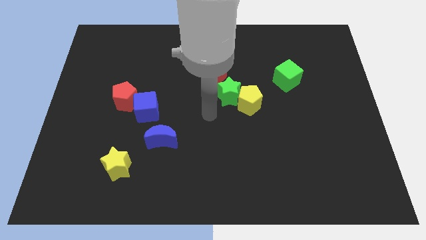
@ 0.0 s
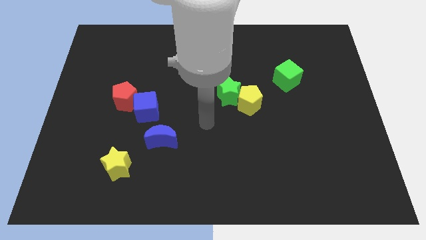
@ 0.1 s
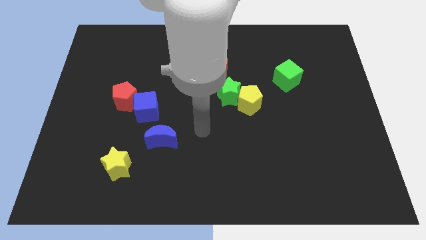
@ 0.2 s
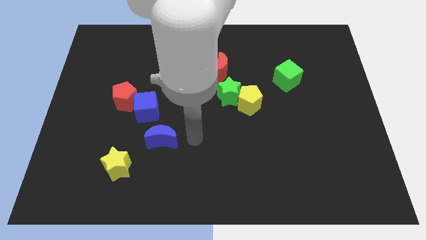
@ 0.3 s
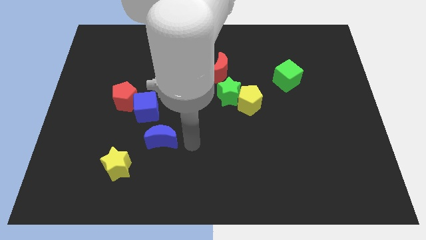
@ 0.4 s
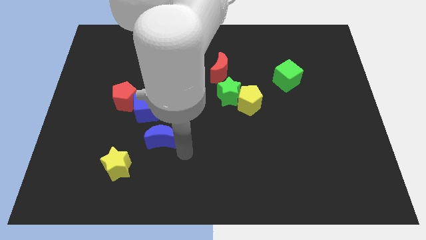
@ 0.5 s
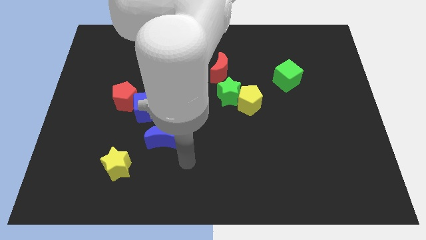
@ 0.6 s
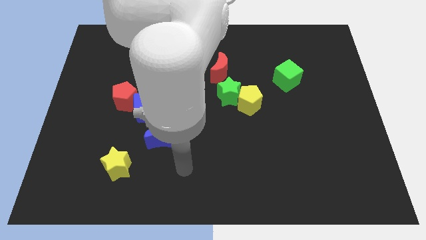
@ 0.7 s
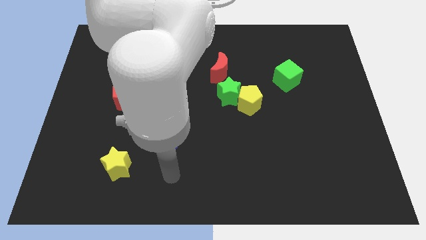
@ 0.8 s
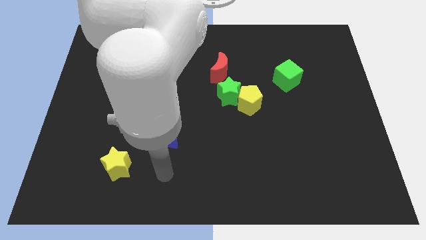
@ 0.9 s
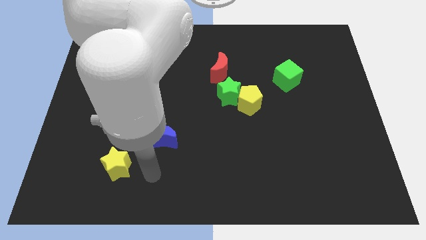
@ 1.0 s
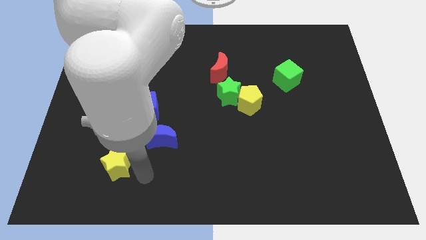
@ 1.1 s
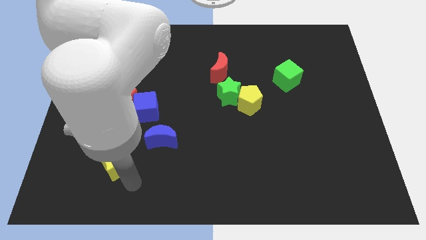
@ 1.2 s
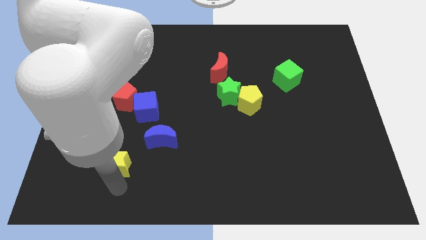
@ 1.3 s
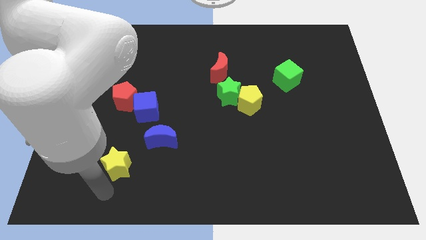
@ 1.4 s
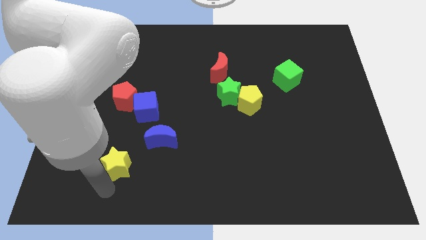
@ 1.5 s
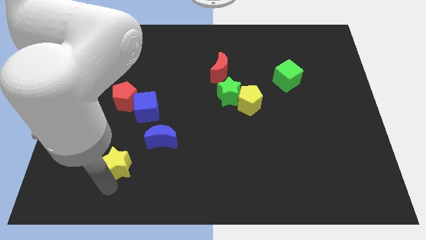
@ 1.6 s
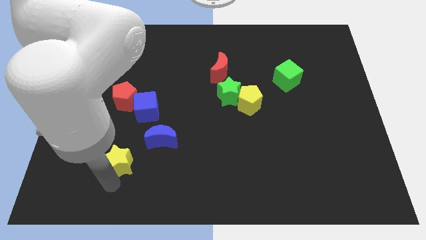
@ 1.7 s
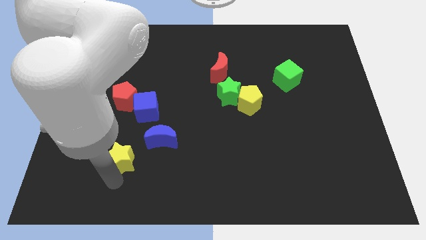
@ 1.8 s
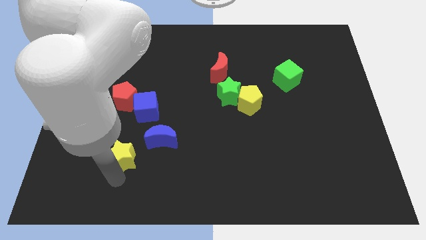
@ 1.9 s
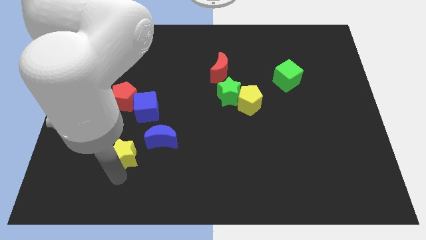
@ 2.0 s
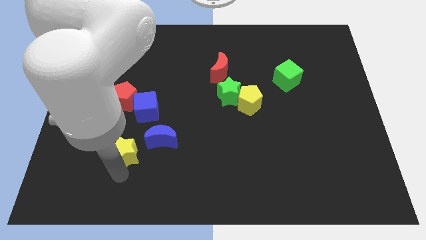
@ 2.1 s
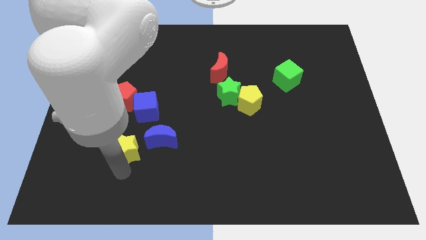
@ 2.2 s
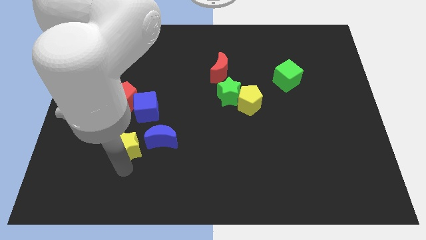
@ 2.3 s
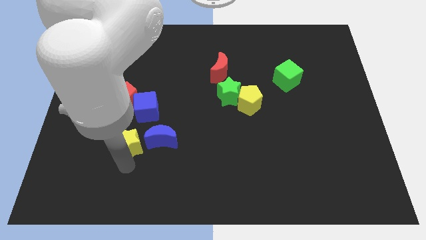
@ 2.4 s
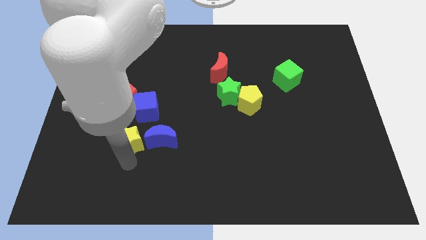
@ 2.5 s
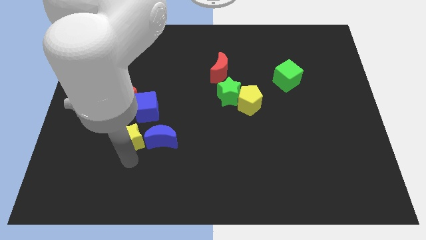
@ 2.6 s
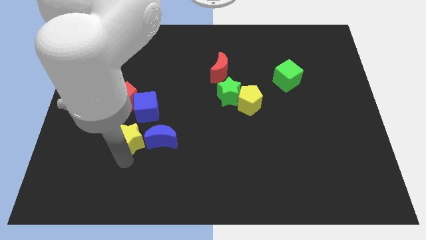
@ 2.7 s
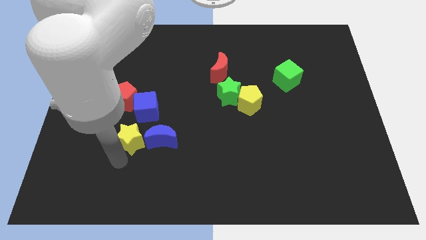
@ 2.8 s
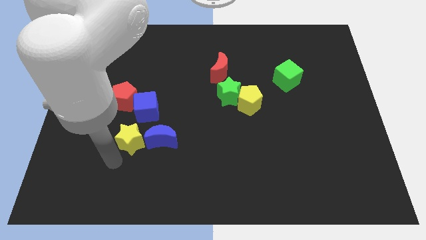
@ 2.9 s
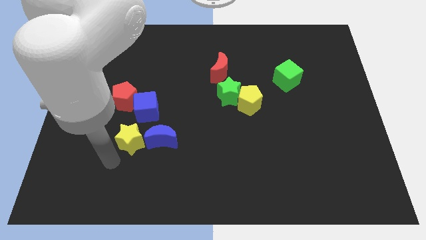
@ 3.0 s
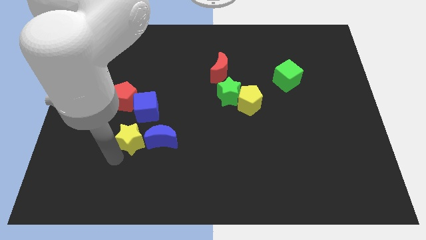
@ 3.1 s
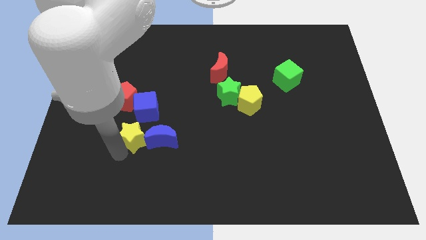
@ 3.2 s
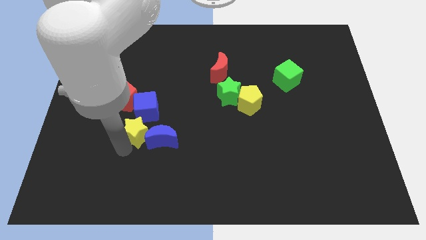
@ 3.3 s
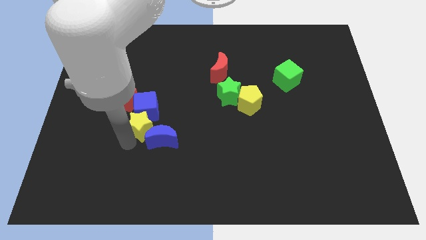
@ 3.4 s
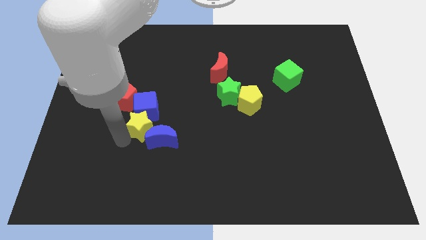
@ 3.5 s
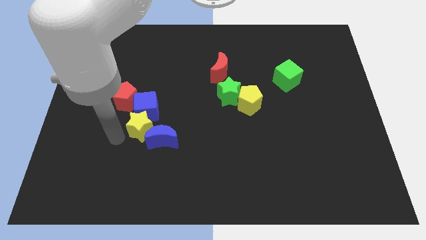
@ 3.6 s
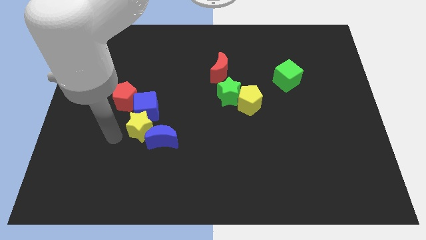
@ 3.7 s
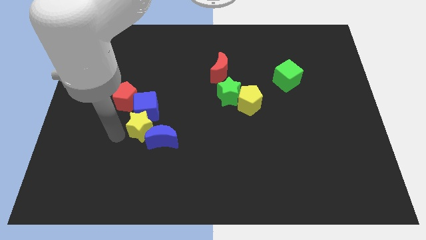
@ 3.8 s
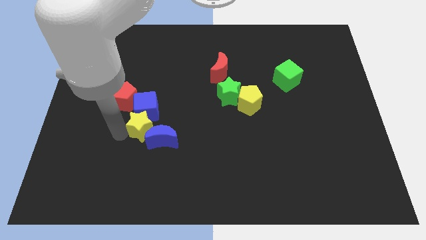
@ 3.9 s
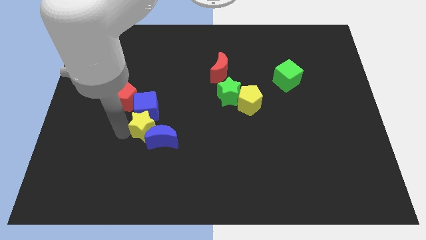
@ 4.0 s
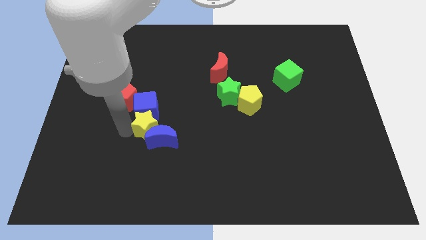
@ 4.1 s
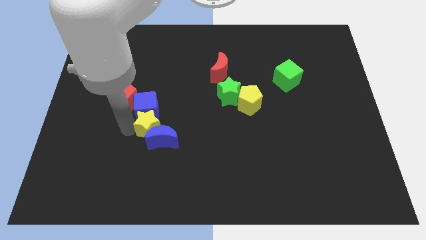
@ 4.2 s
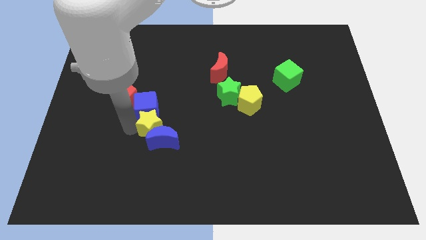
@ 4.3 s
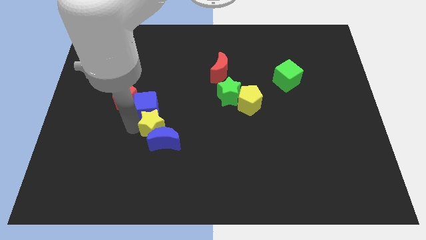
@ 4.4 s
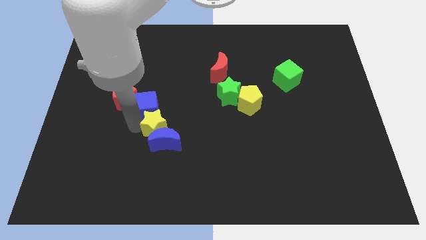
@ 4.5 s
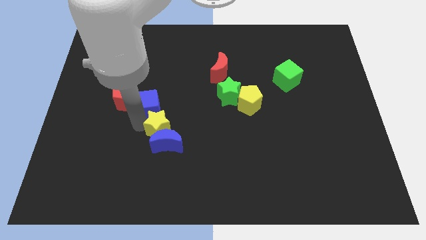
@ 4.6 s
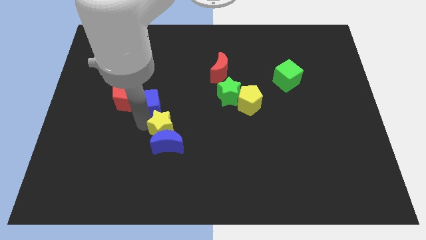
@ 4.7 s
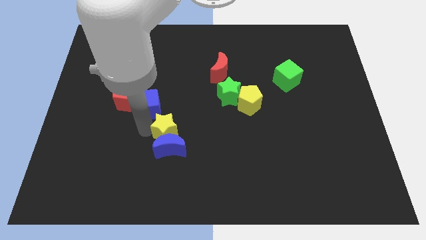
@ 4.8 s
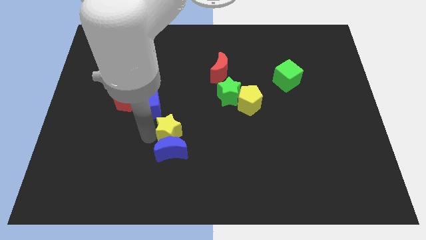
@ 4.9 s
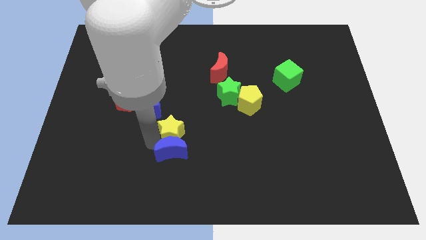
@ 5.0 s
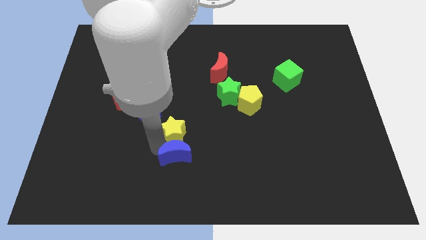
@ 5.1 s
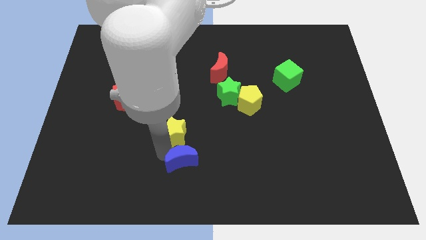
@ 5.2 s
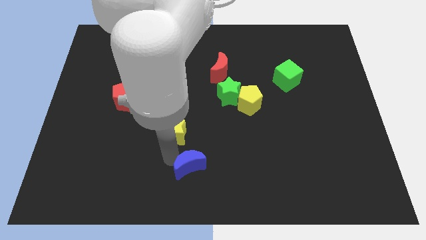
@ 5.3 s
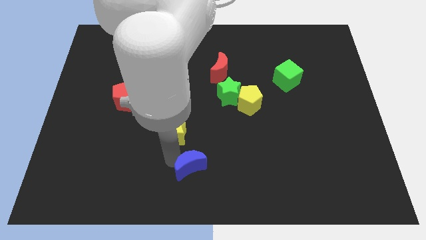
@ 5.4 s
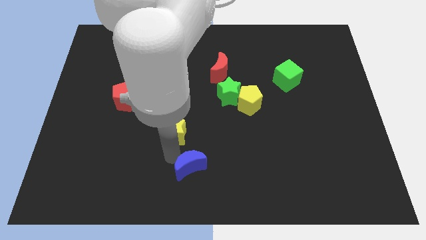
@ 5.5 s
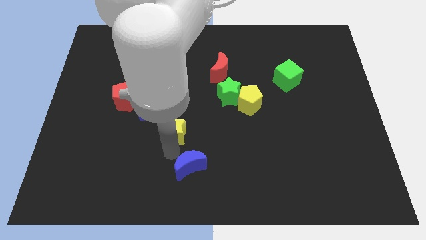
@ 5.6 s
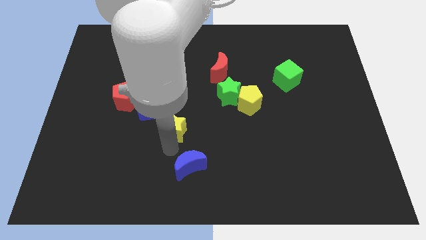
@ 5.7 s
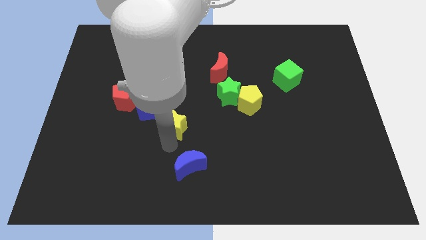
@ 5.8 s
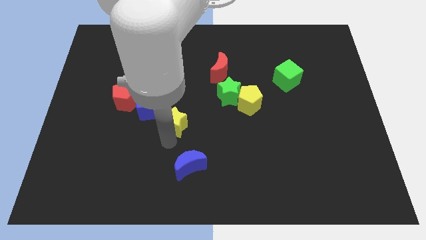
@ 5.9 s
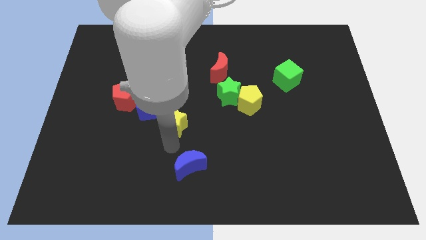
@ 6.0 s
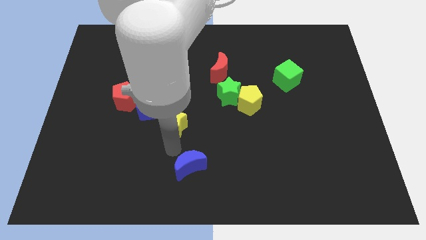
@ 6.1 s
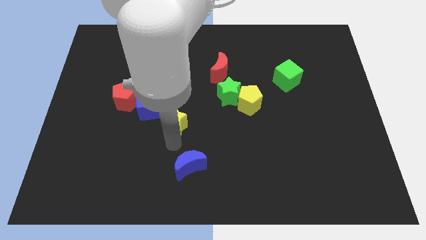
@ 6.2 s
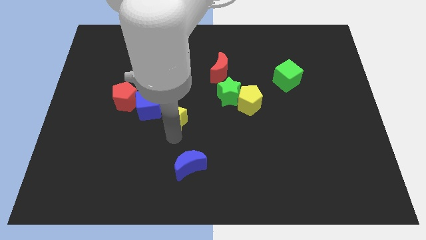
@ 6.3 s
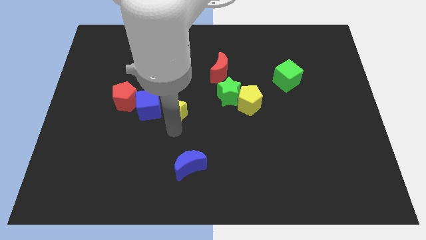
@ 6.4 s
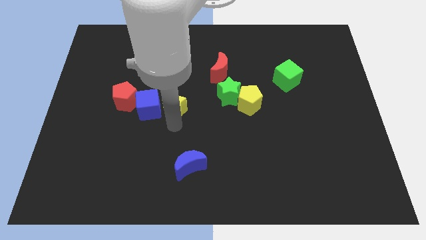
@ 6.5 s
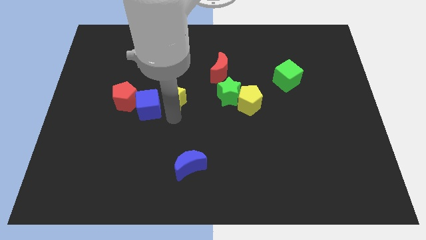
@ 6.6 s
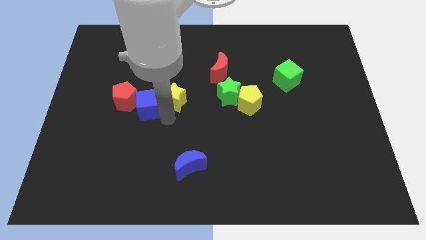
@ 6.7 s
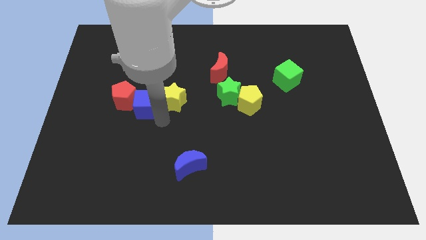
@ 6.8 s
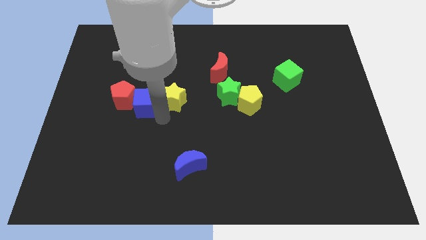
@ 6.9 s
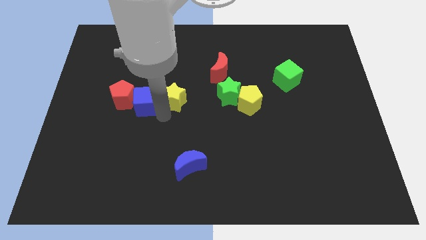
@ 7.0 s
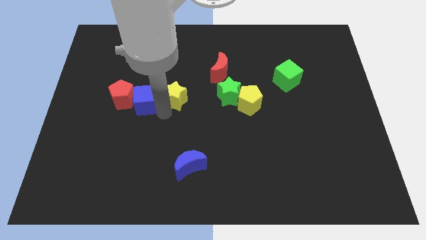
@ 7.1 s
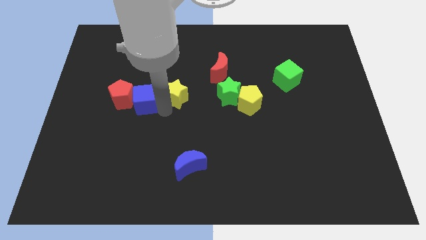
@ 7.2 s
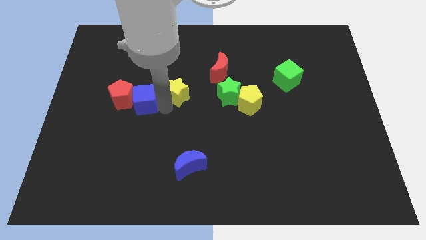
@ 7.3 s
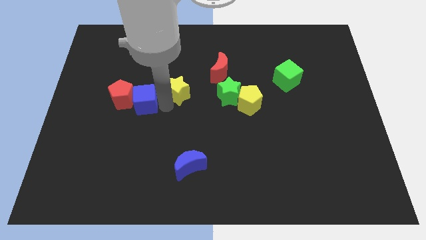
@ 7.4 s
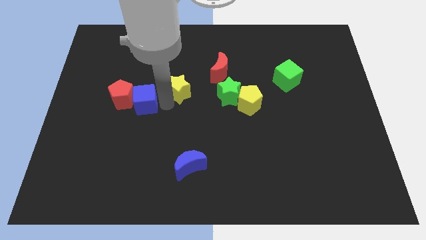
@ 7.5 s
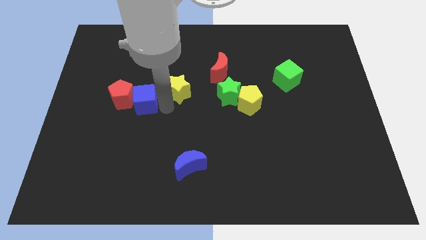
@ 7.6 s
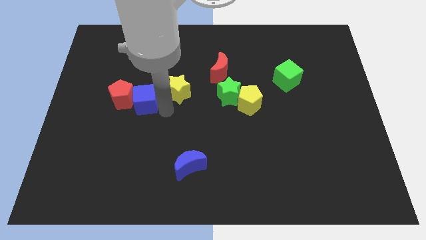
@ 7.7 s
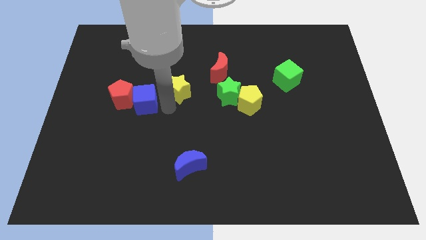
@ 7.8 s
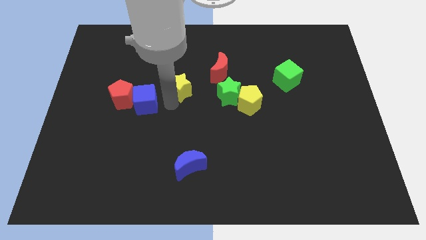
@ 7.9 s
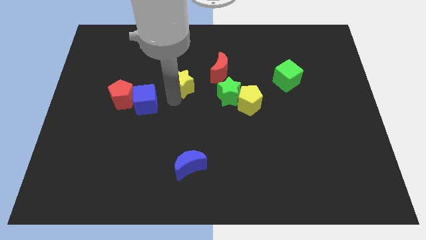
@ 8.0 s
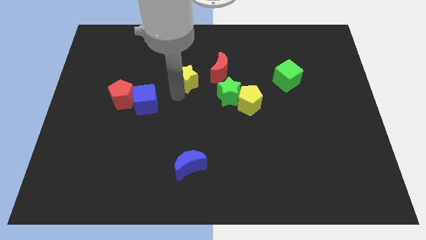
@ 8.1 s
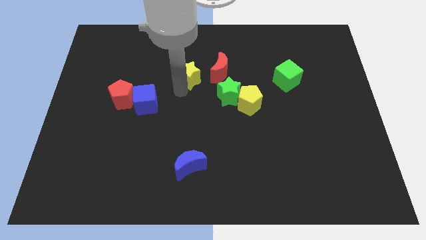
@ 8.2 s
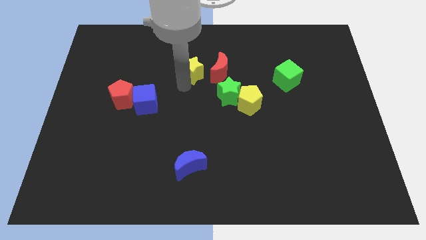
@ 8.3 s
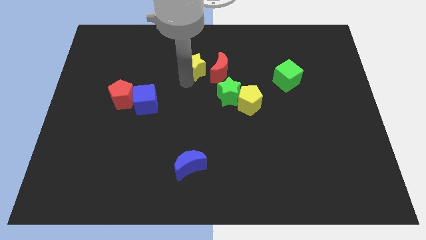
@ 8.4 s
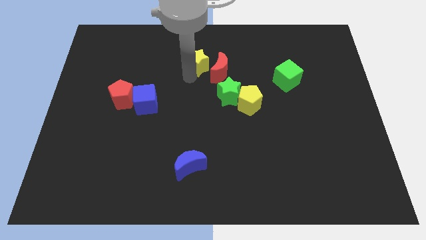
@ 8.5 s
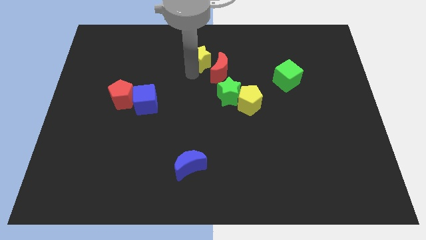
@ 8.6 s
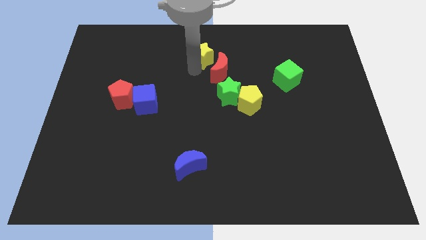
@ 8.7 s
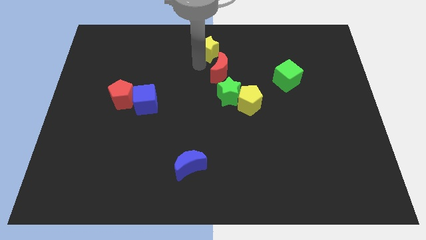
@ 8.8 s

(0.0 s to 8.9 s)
push the yellow star to the towards your base
